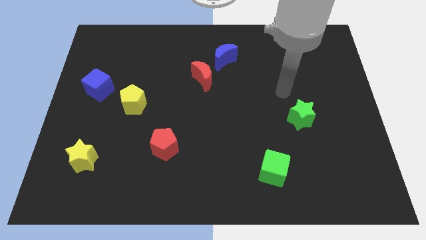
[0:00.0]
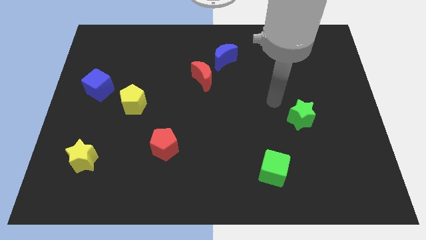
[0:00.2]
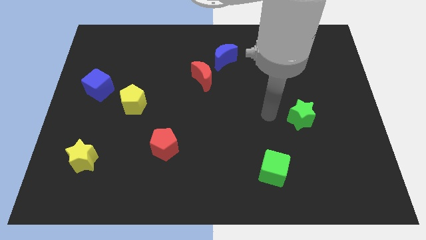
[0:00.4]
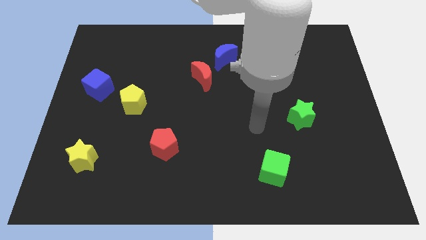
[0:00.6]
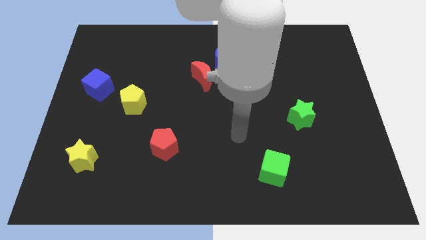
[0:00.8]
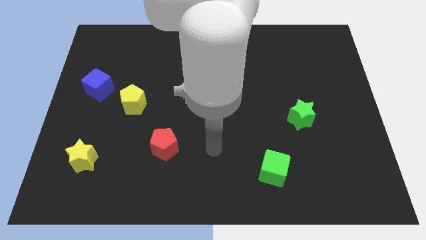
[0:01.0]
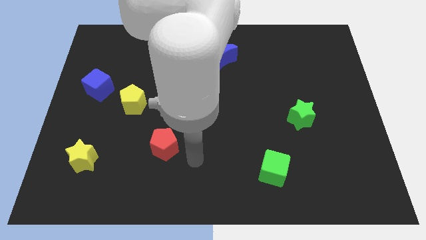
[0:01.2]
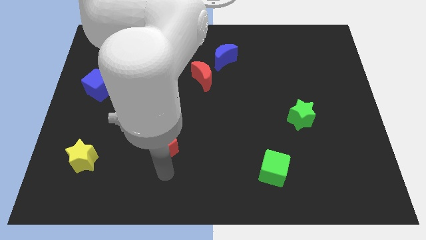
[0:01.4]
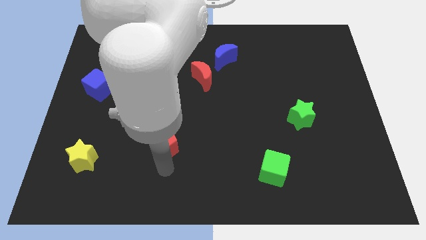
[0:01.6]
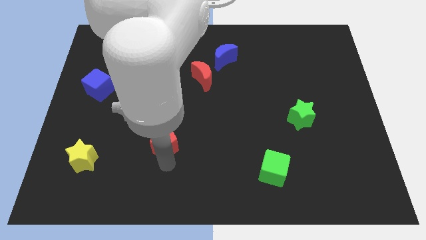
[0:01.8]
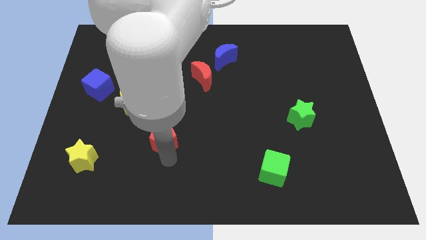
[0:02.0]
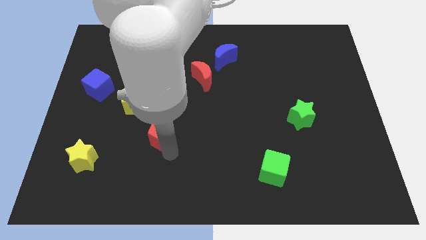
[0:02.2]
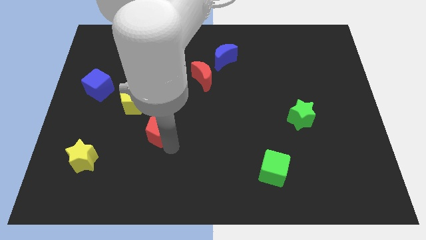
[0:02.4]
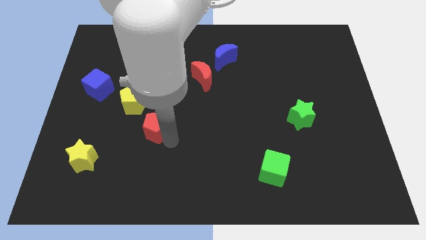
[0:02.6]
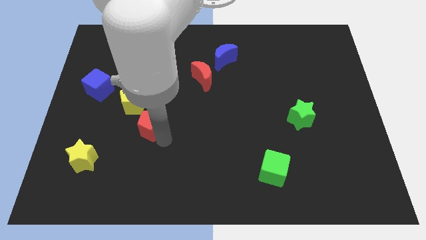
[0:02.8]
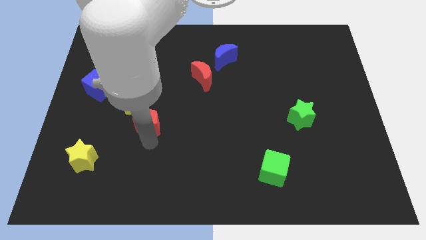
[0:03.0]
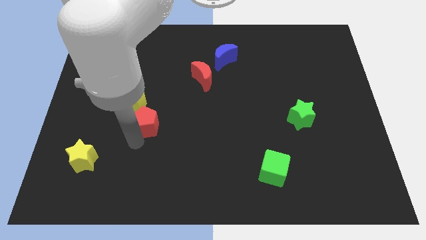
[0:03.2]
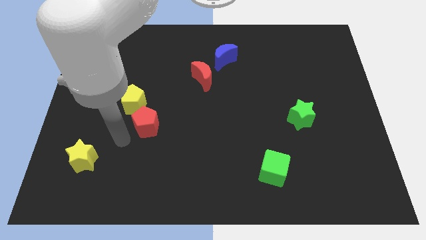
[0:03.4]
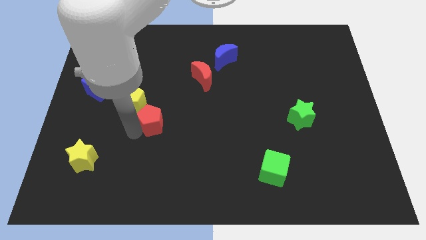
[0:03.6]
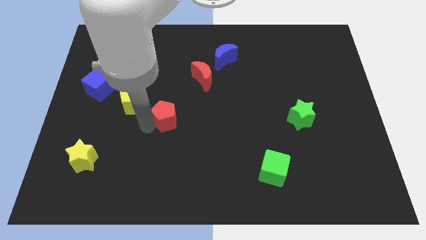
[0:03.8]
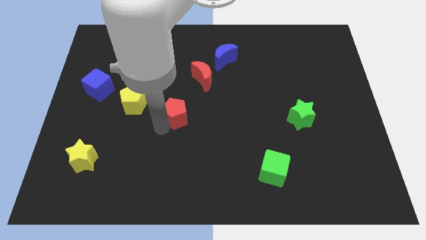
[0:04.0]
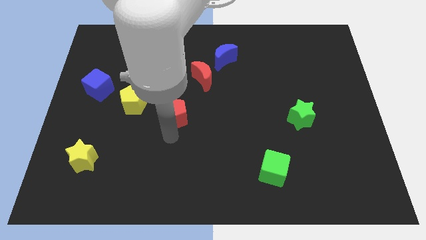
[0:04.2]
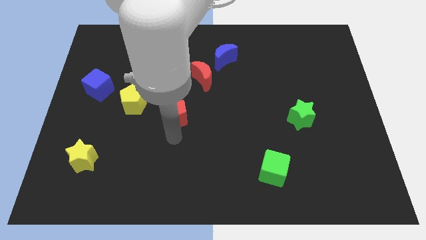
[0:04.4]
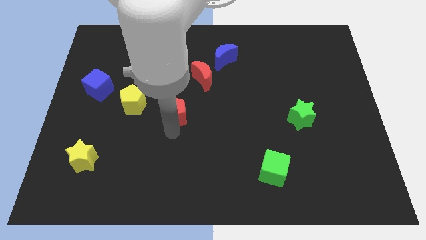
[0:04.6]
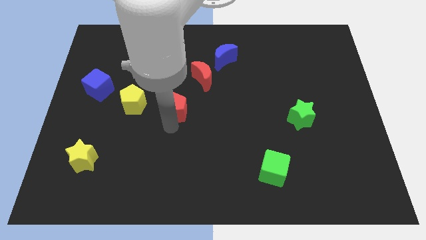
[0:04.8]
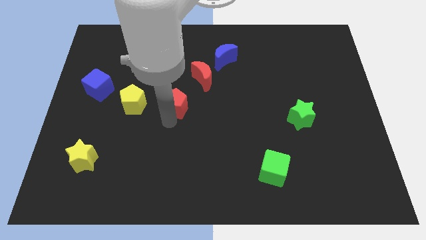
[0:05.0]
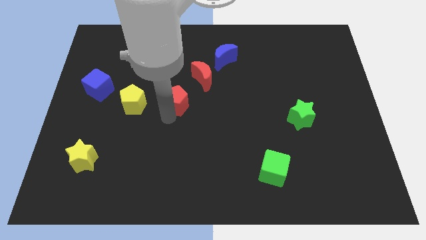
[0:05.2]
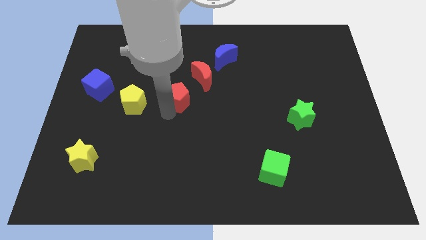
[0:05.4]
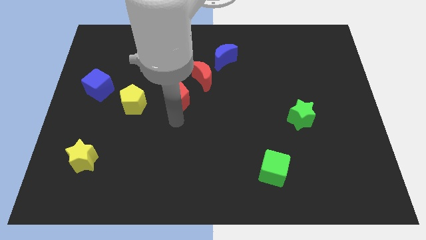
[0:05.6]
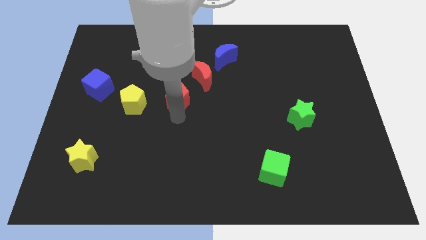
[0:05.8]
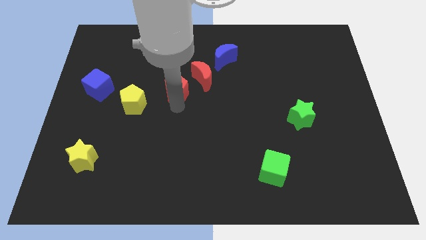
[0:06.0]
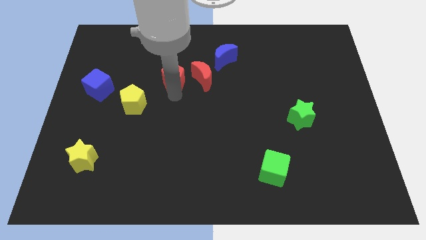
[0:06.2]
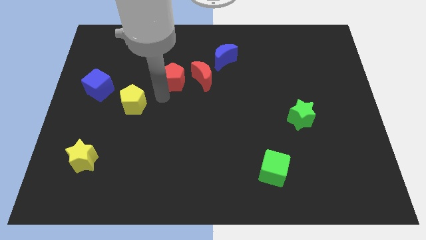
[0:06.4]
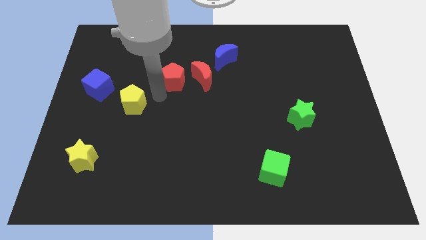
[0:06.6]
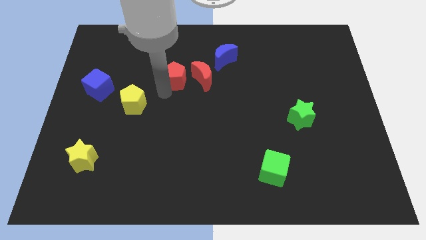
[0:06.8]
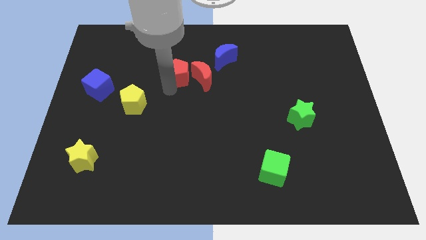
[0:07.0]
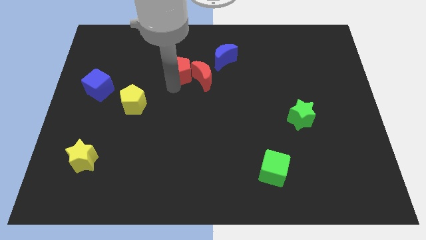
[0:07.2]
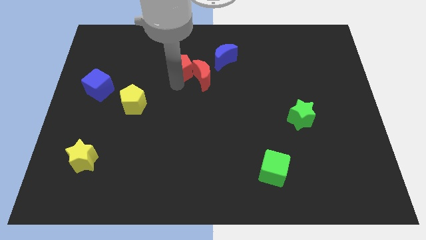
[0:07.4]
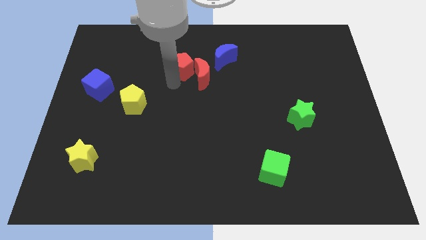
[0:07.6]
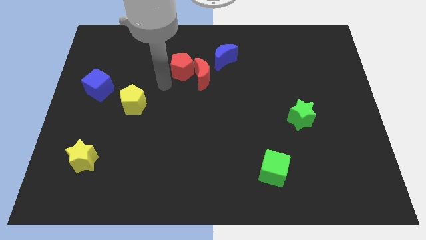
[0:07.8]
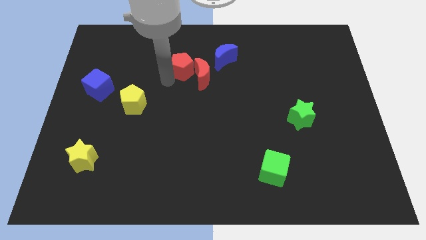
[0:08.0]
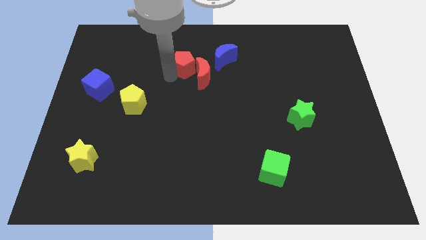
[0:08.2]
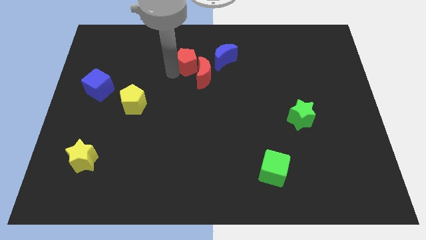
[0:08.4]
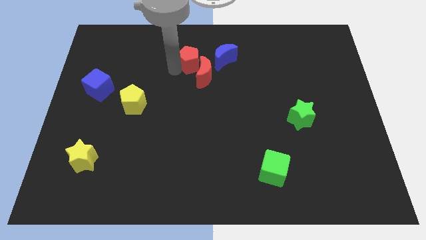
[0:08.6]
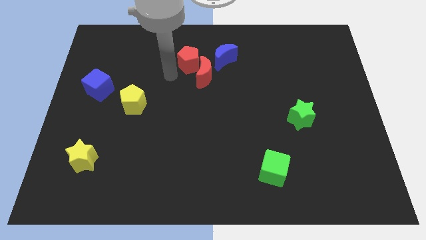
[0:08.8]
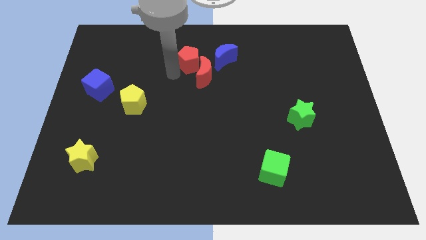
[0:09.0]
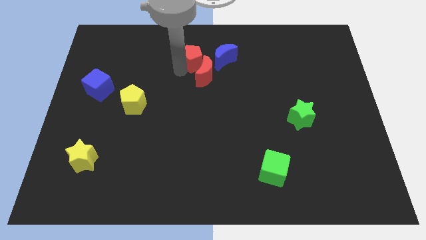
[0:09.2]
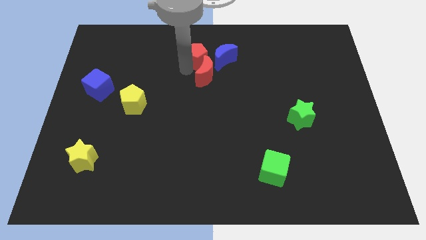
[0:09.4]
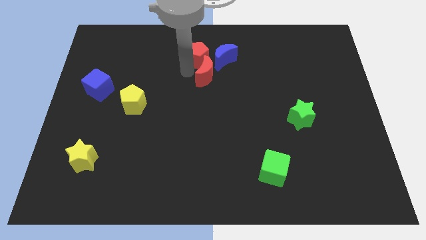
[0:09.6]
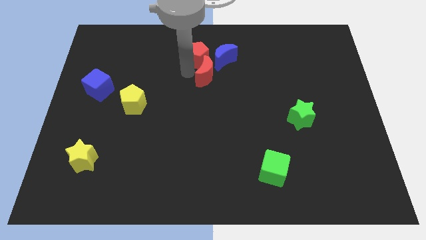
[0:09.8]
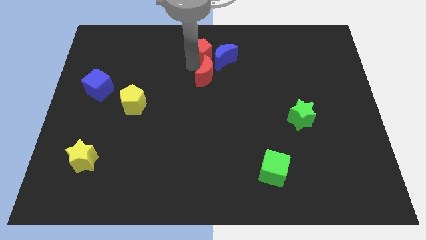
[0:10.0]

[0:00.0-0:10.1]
slide the red pentagon to the towards your base

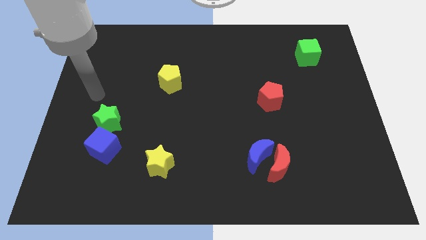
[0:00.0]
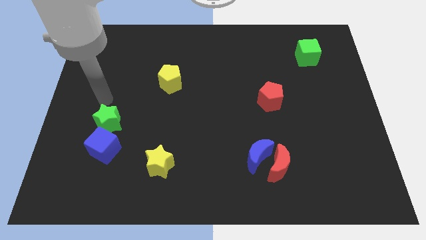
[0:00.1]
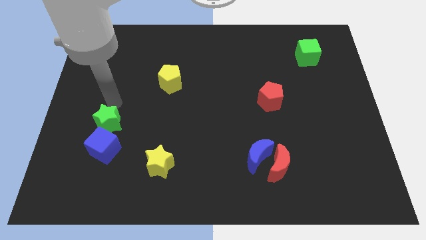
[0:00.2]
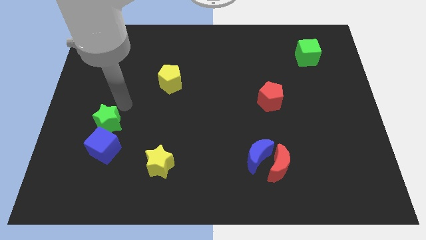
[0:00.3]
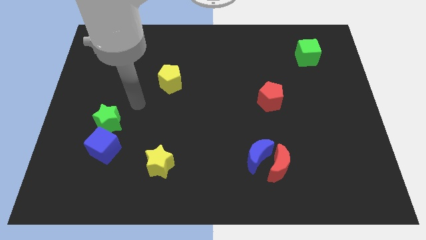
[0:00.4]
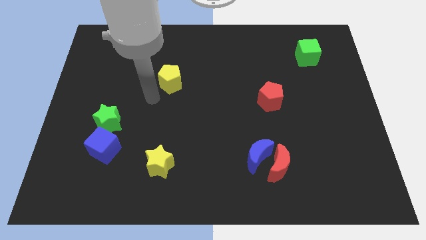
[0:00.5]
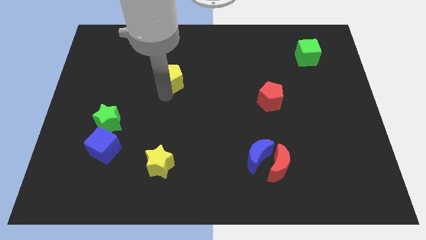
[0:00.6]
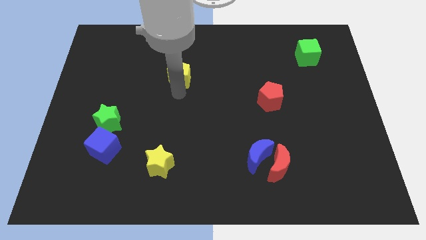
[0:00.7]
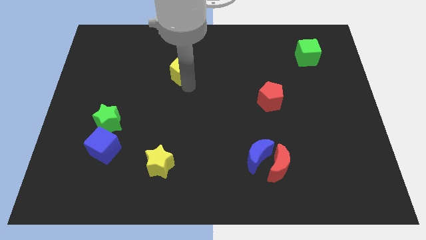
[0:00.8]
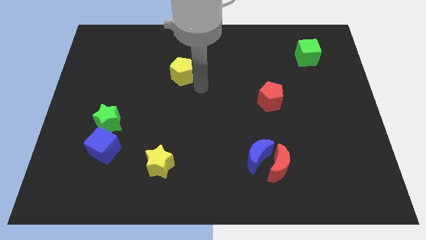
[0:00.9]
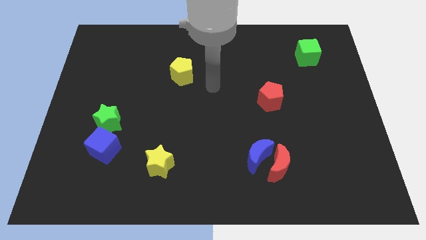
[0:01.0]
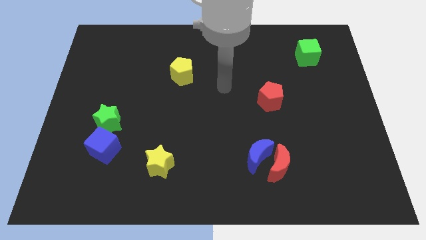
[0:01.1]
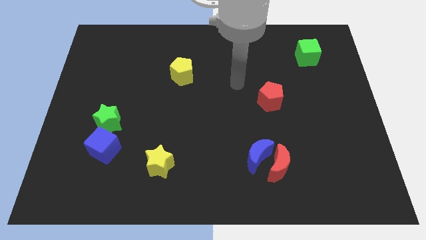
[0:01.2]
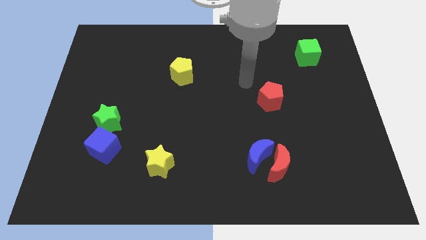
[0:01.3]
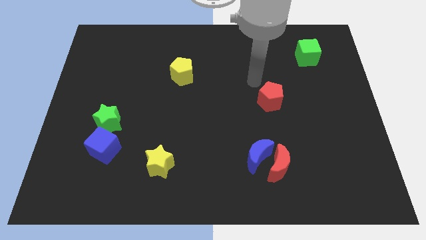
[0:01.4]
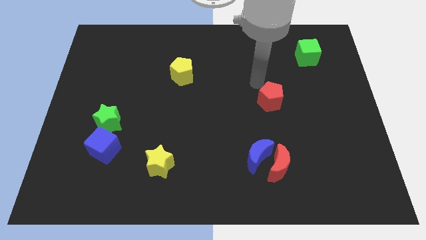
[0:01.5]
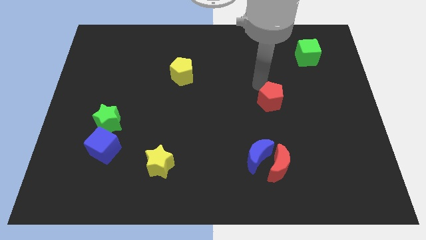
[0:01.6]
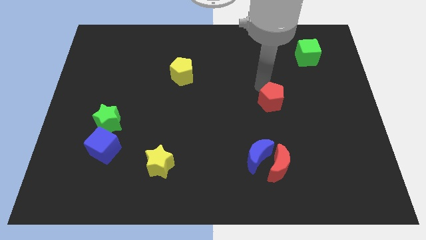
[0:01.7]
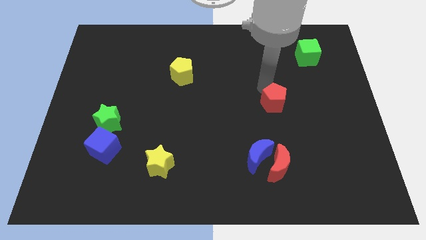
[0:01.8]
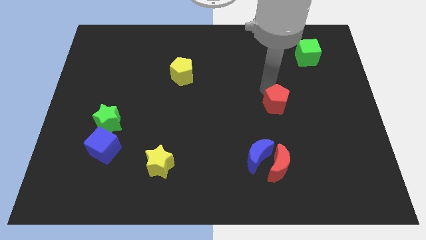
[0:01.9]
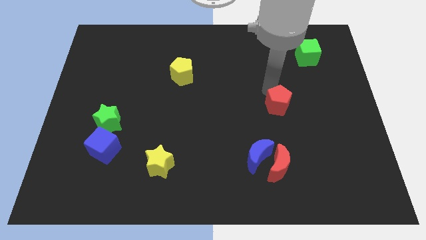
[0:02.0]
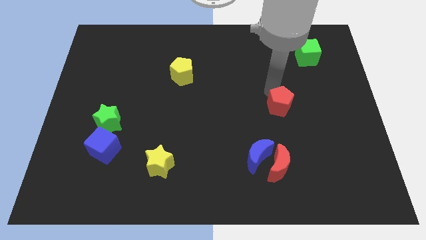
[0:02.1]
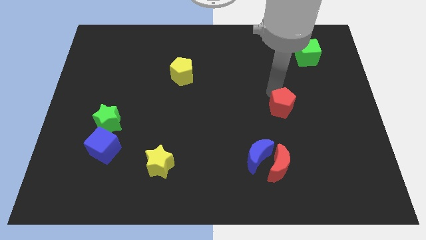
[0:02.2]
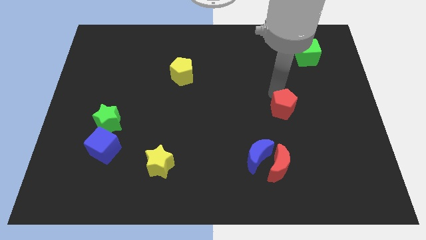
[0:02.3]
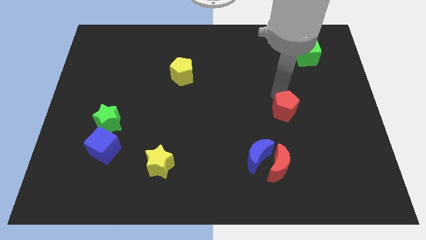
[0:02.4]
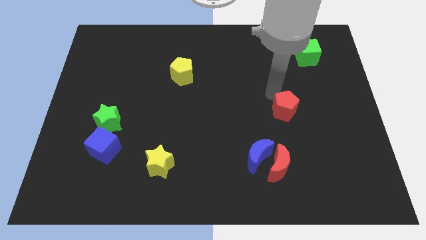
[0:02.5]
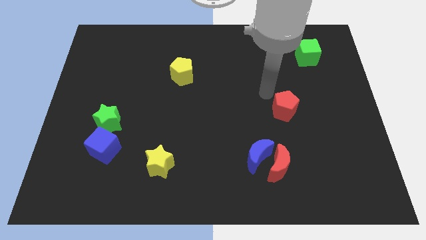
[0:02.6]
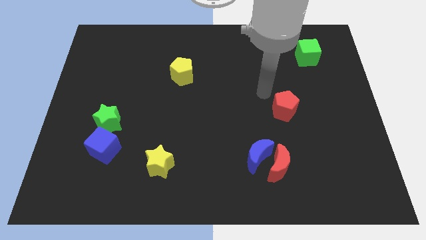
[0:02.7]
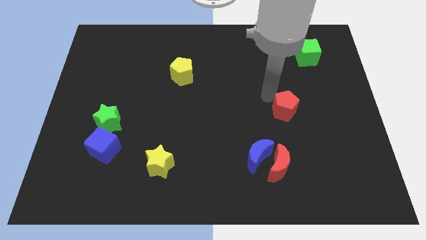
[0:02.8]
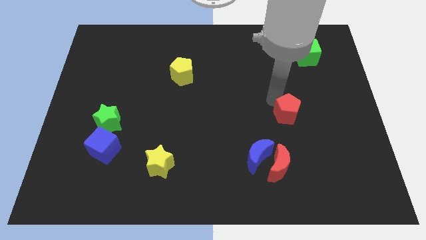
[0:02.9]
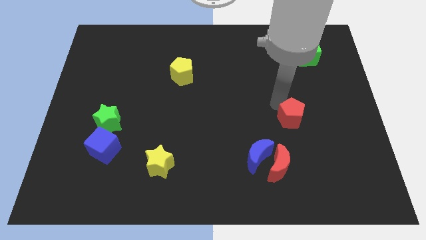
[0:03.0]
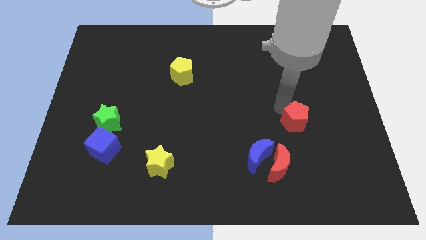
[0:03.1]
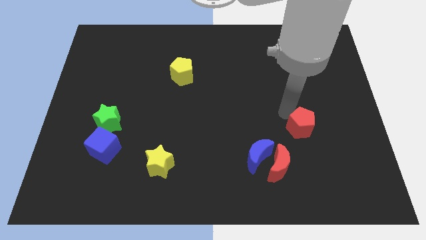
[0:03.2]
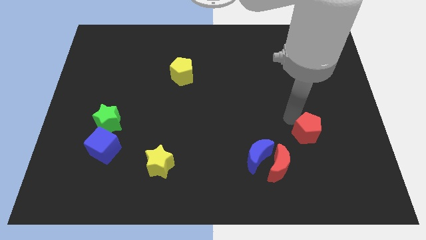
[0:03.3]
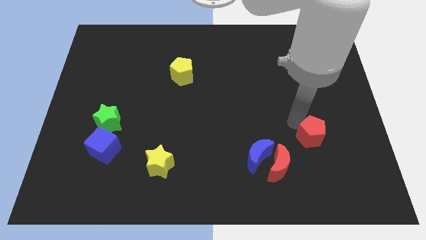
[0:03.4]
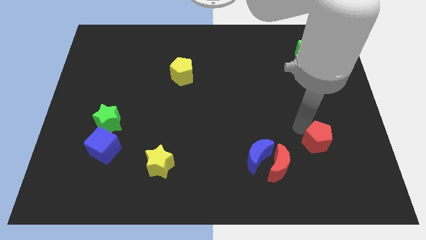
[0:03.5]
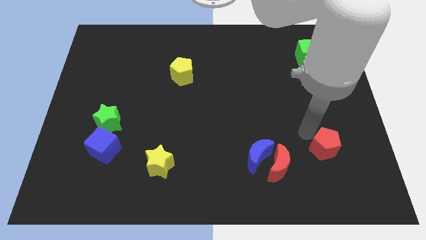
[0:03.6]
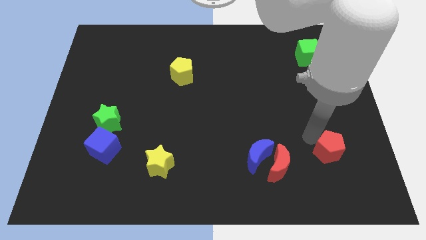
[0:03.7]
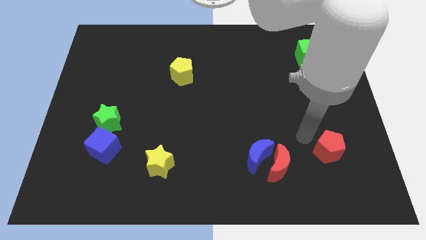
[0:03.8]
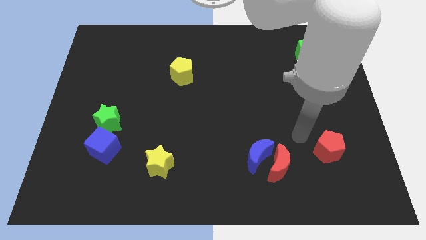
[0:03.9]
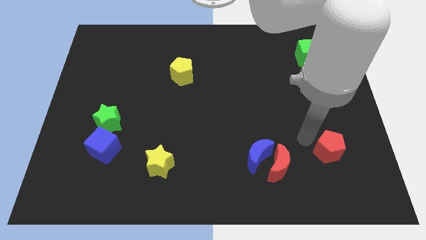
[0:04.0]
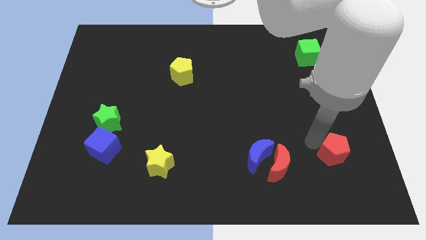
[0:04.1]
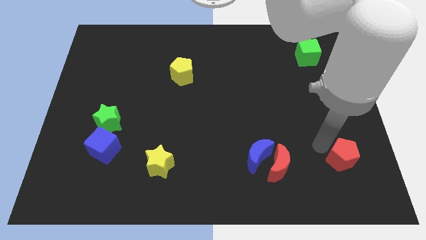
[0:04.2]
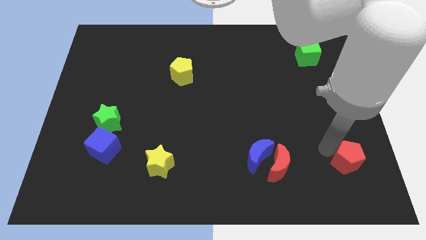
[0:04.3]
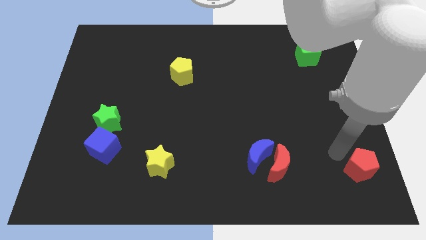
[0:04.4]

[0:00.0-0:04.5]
put the red pentagon to the lower right corner
